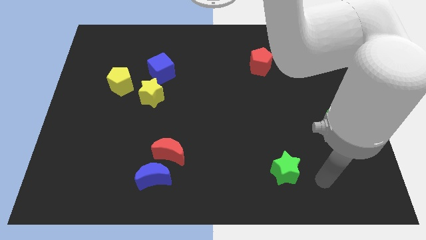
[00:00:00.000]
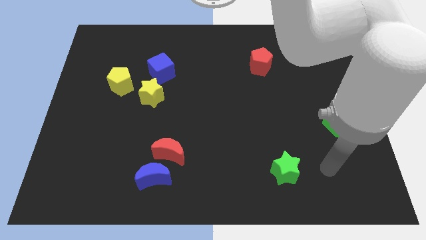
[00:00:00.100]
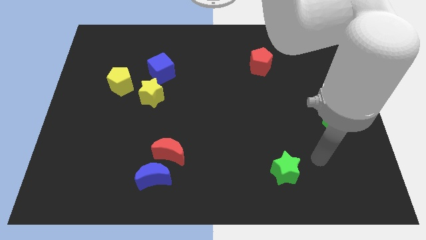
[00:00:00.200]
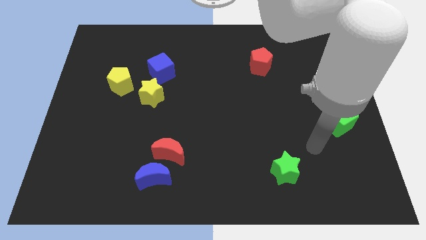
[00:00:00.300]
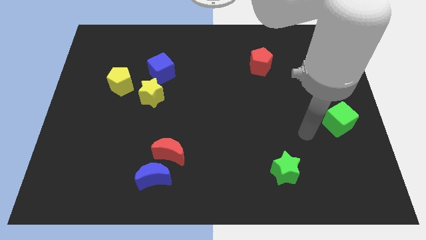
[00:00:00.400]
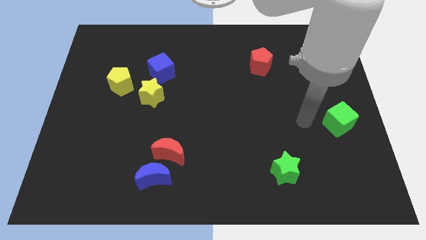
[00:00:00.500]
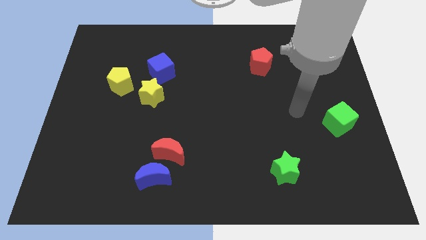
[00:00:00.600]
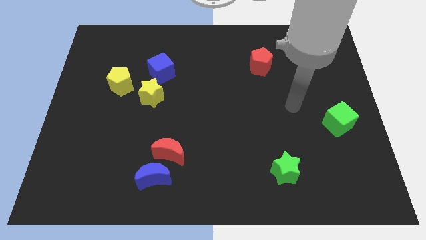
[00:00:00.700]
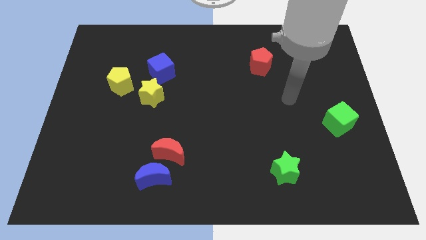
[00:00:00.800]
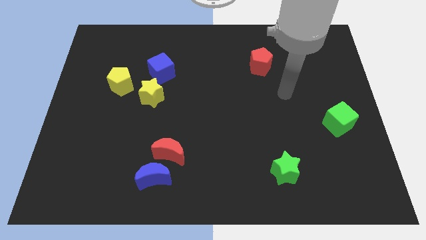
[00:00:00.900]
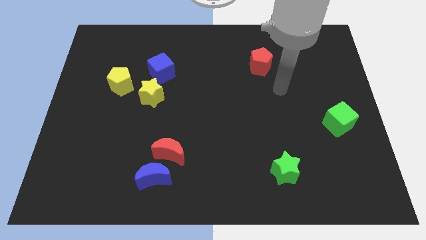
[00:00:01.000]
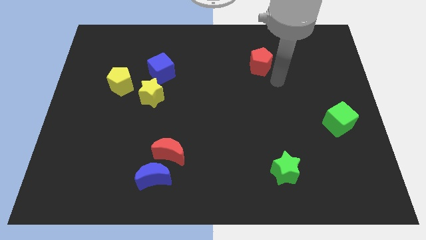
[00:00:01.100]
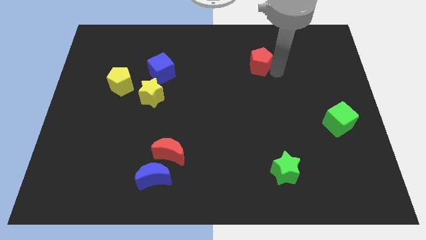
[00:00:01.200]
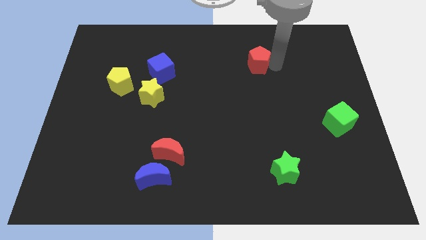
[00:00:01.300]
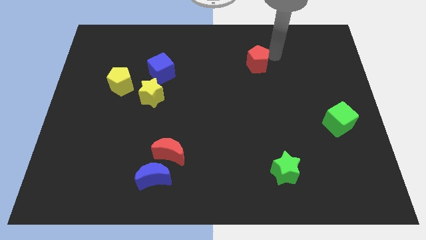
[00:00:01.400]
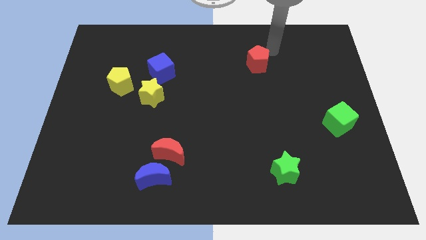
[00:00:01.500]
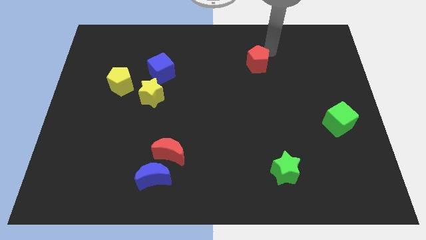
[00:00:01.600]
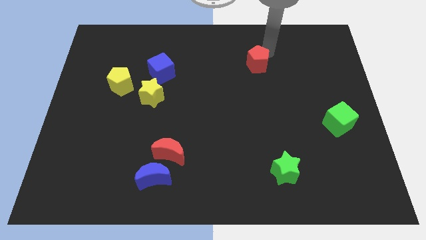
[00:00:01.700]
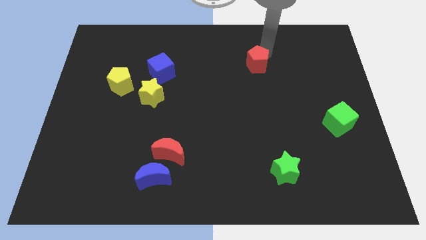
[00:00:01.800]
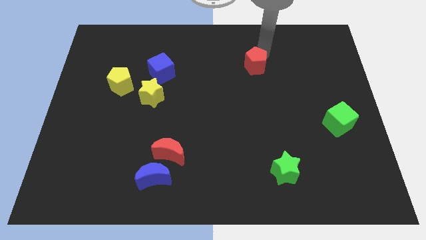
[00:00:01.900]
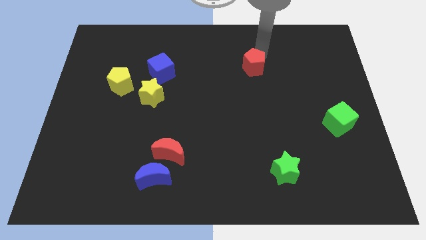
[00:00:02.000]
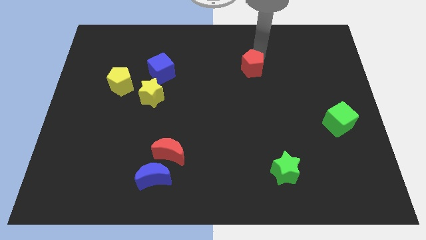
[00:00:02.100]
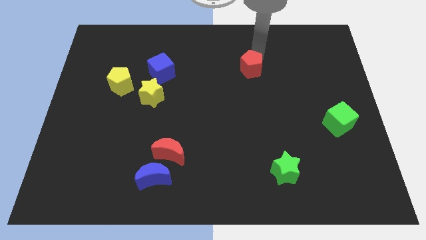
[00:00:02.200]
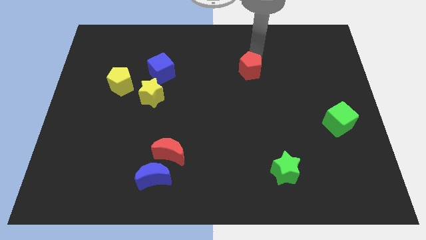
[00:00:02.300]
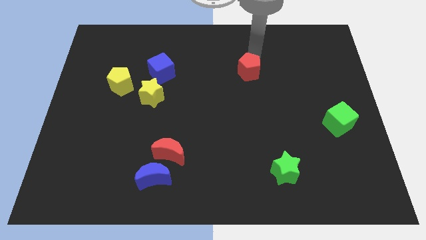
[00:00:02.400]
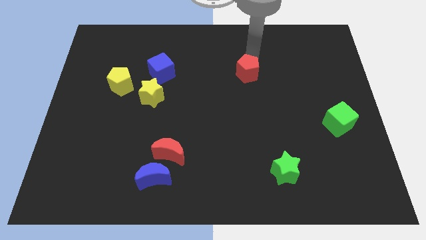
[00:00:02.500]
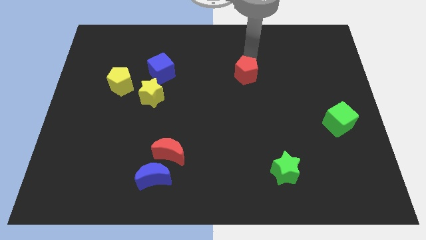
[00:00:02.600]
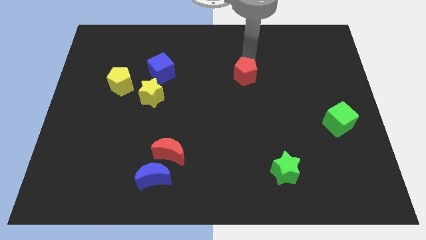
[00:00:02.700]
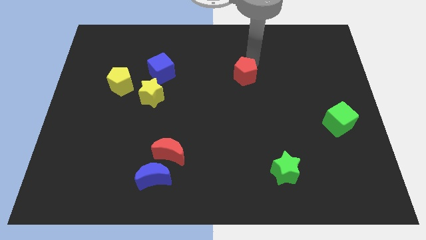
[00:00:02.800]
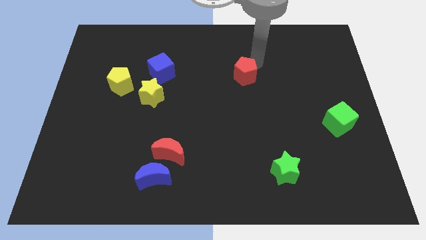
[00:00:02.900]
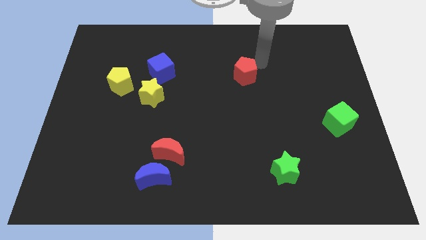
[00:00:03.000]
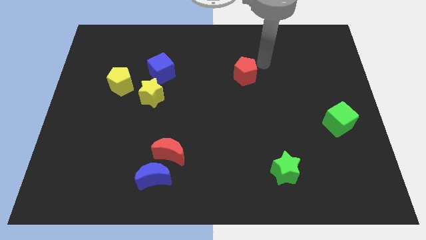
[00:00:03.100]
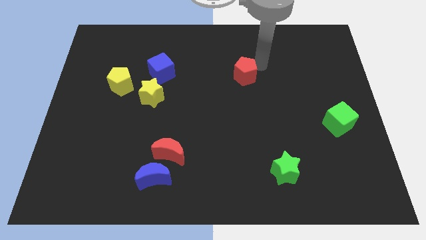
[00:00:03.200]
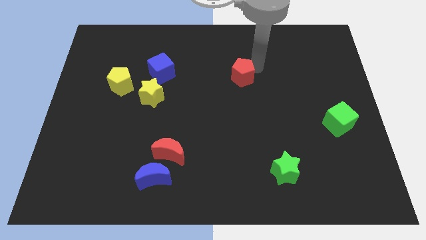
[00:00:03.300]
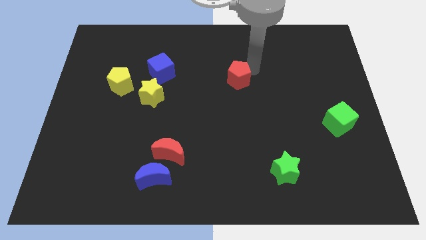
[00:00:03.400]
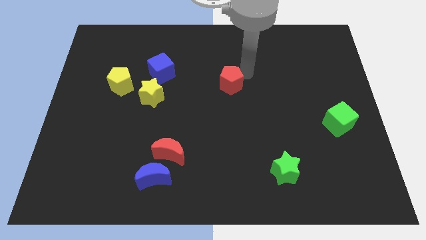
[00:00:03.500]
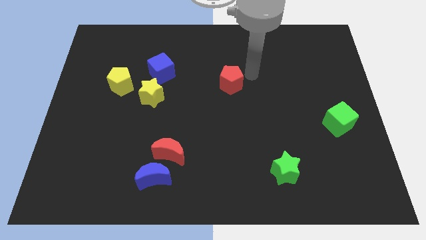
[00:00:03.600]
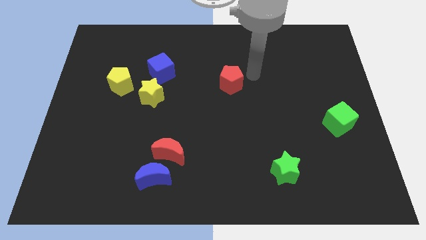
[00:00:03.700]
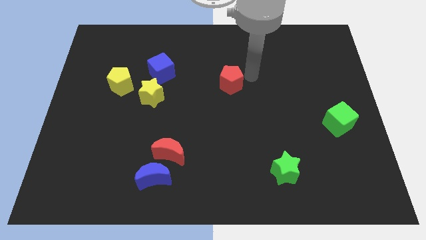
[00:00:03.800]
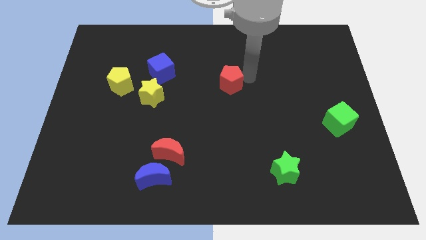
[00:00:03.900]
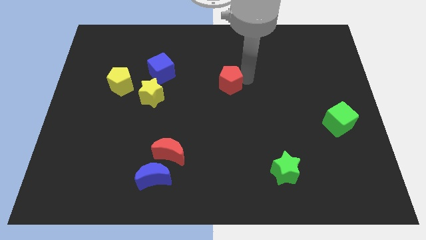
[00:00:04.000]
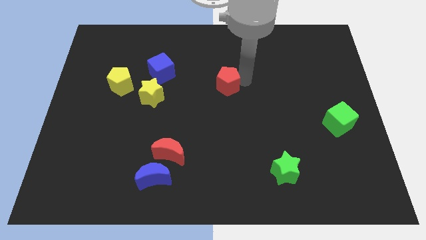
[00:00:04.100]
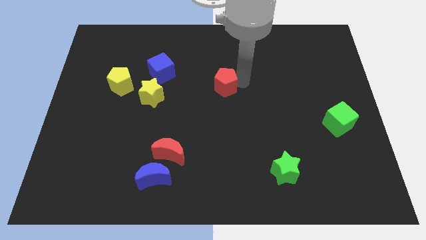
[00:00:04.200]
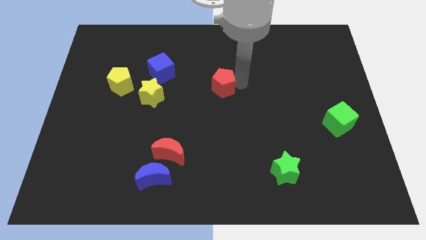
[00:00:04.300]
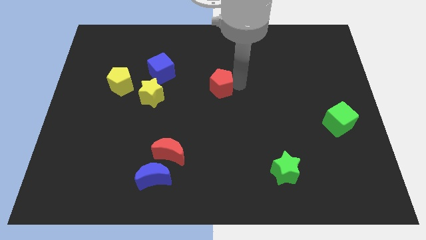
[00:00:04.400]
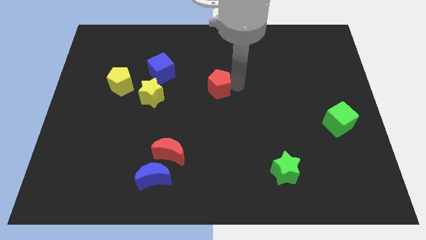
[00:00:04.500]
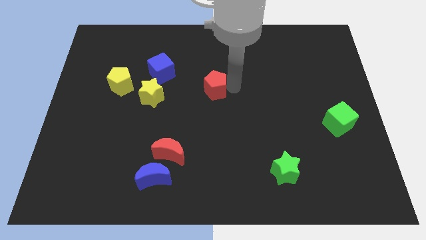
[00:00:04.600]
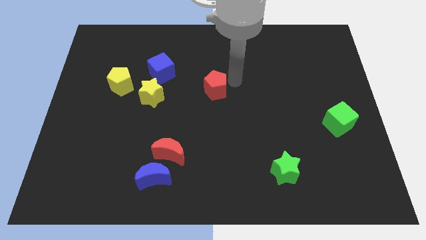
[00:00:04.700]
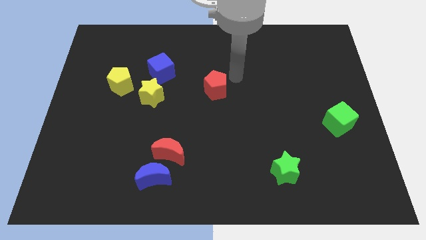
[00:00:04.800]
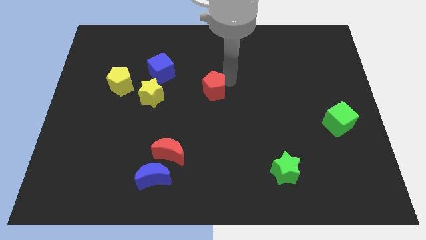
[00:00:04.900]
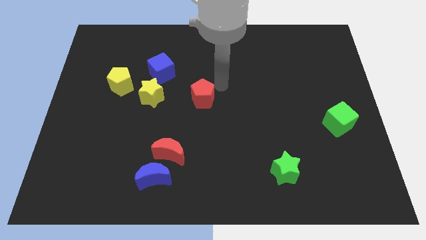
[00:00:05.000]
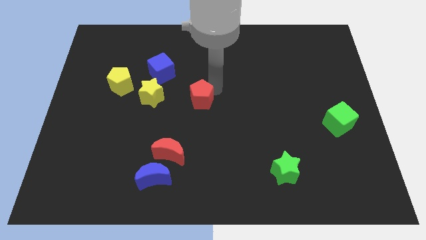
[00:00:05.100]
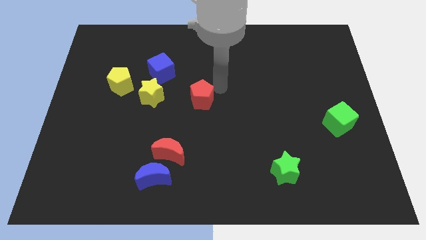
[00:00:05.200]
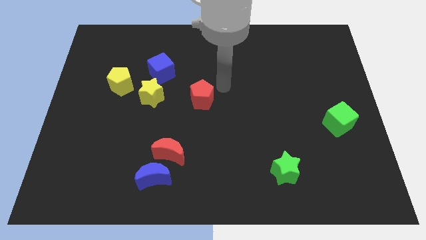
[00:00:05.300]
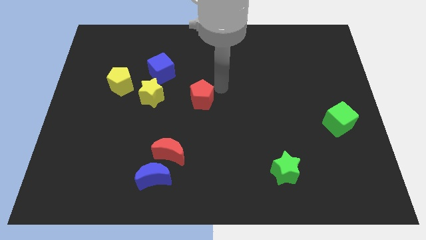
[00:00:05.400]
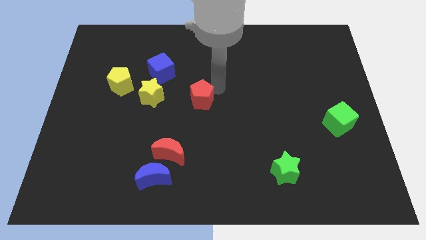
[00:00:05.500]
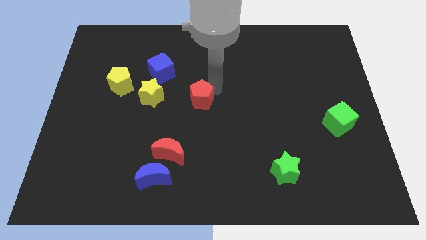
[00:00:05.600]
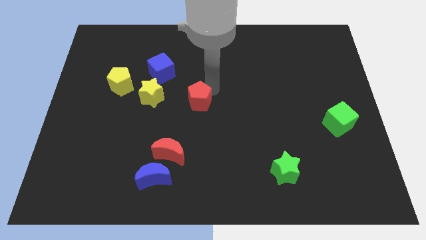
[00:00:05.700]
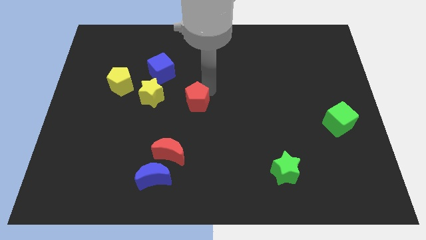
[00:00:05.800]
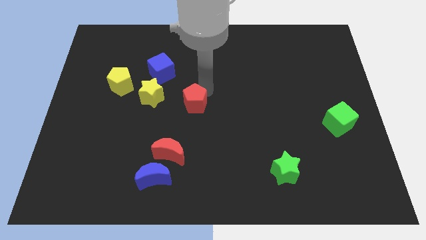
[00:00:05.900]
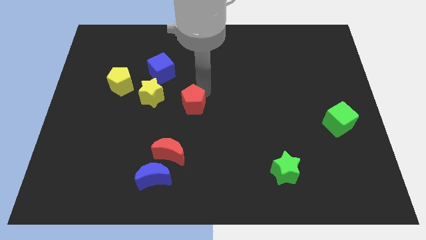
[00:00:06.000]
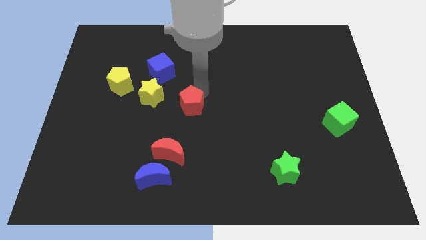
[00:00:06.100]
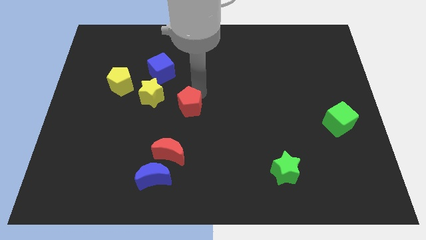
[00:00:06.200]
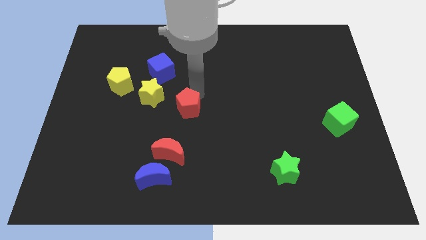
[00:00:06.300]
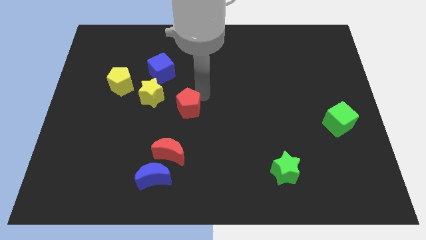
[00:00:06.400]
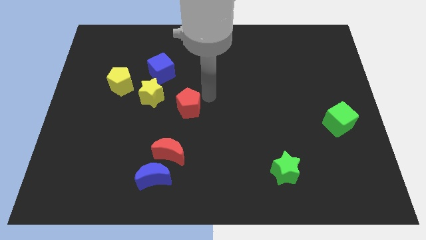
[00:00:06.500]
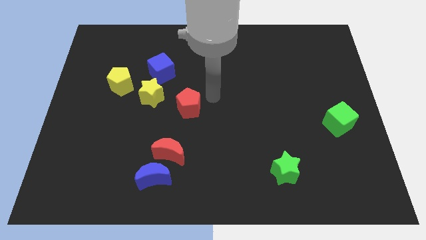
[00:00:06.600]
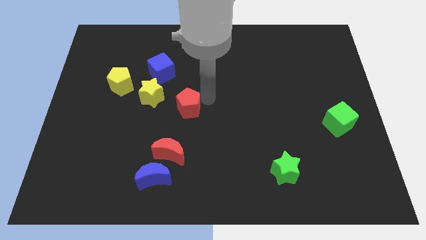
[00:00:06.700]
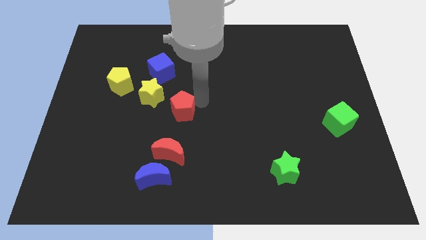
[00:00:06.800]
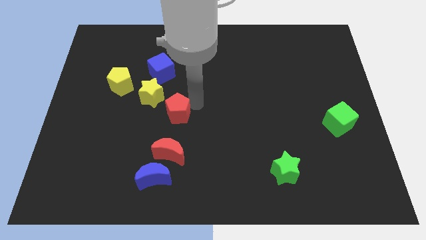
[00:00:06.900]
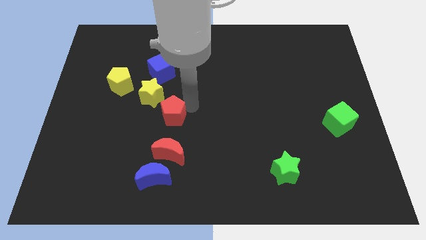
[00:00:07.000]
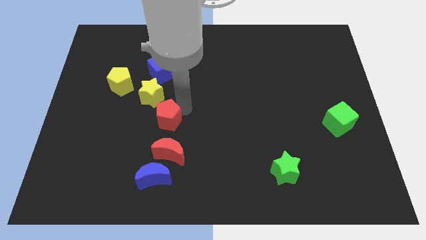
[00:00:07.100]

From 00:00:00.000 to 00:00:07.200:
move the red pentagon below the yellow star
